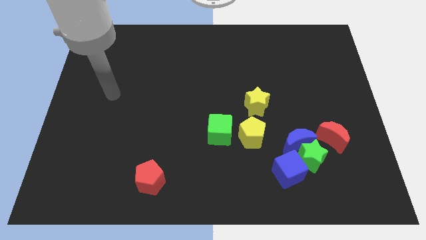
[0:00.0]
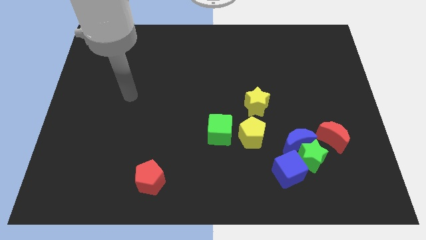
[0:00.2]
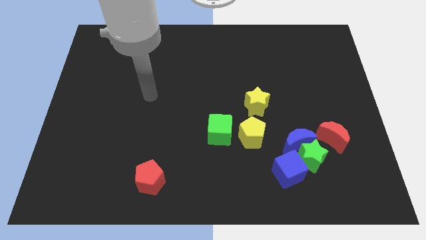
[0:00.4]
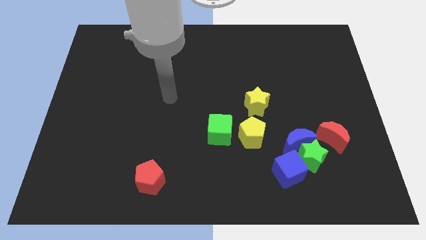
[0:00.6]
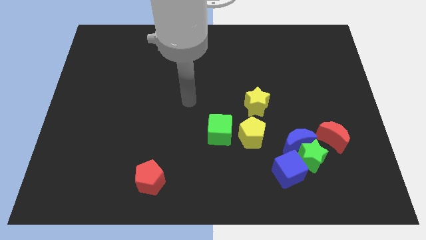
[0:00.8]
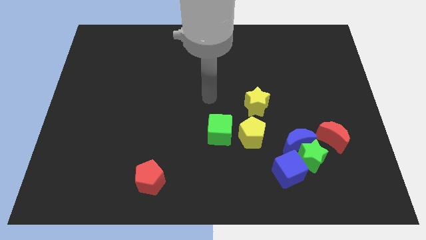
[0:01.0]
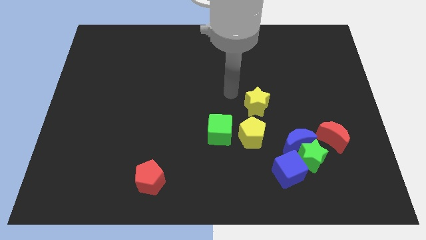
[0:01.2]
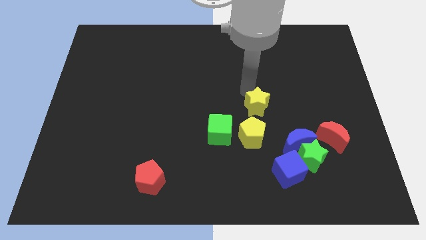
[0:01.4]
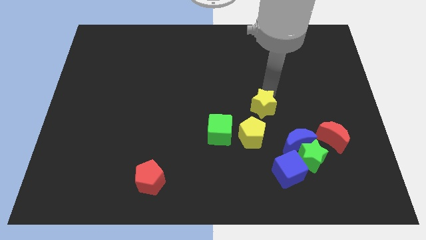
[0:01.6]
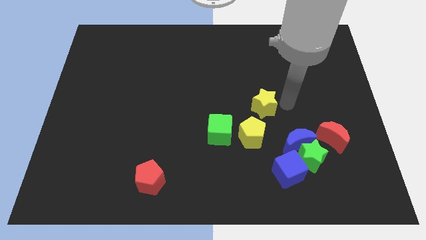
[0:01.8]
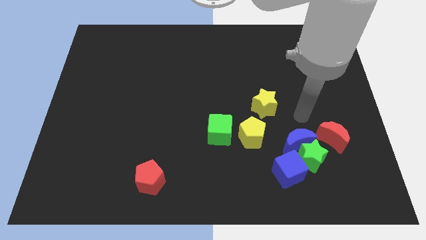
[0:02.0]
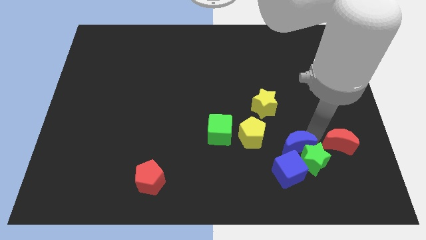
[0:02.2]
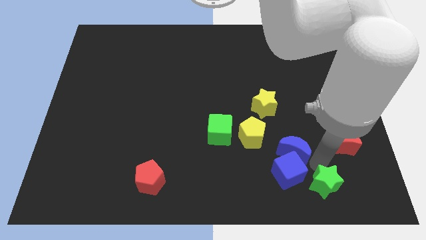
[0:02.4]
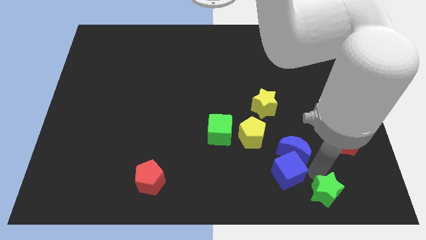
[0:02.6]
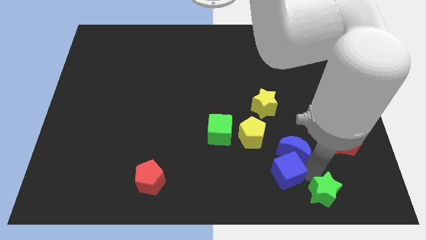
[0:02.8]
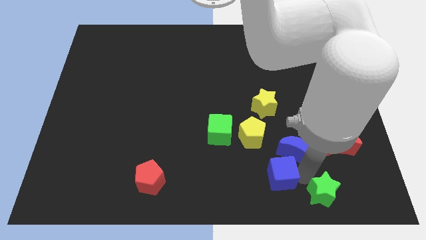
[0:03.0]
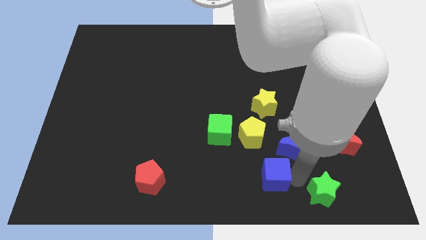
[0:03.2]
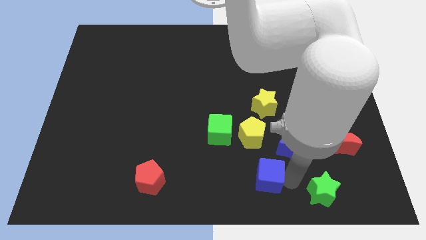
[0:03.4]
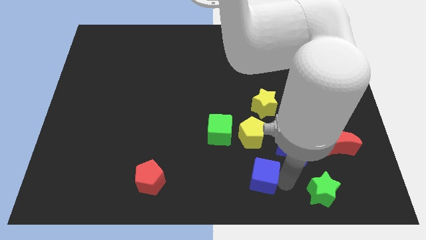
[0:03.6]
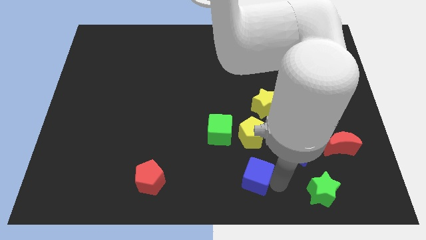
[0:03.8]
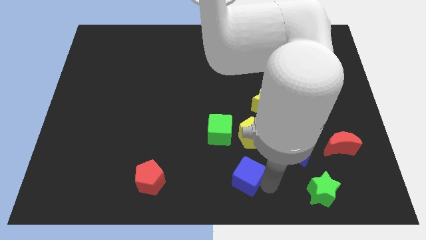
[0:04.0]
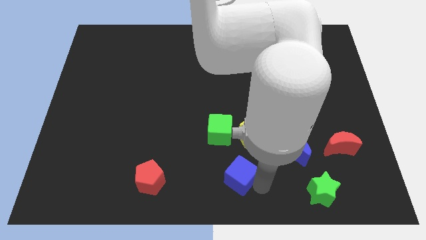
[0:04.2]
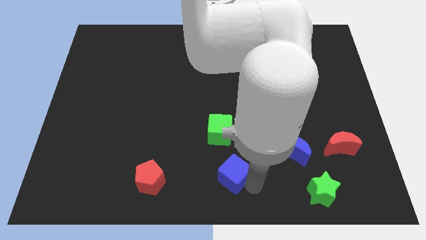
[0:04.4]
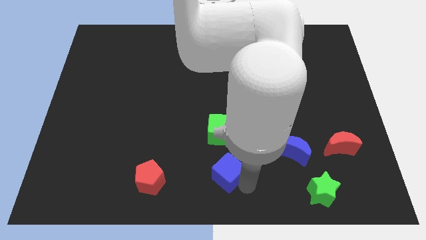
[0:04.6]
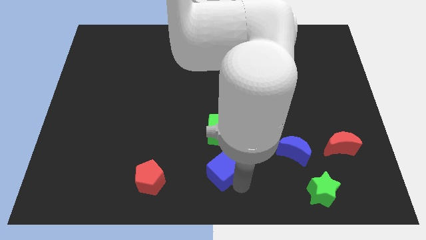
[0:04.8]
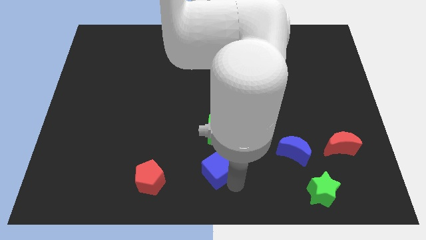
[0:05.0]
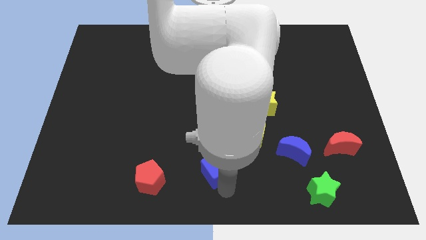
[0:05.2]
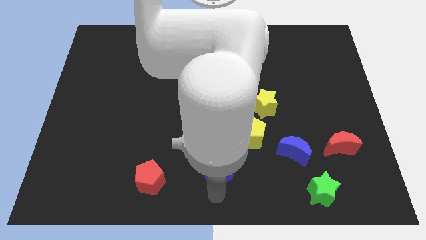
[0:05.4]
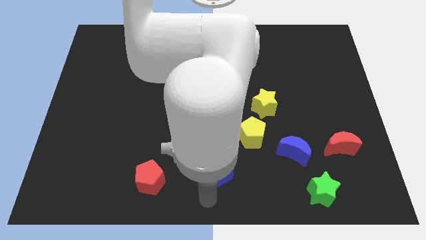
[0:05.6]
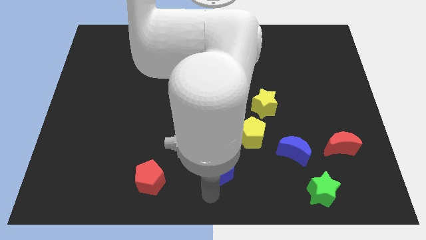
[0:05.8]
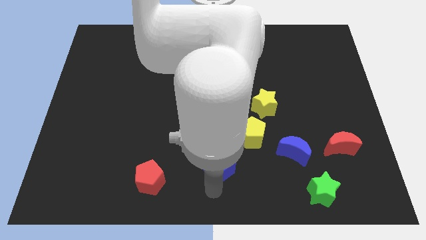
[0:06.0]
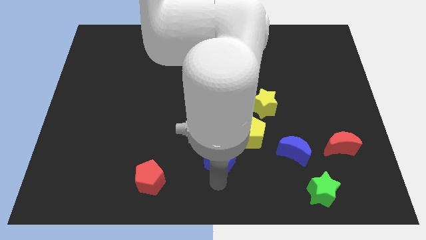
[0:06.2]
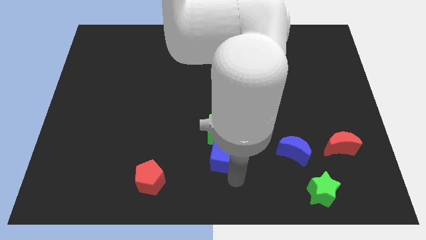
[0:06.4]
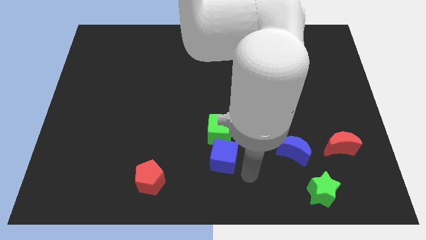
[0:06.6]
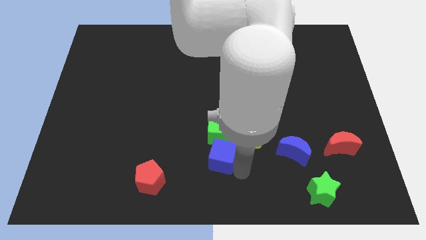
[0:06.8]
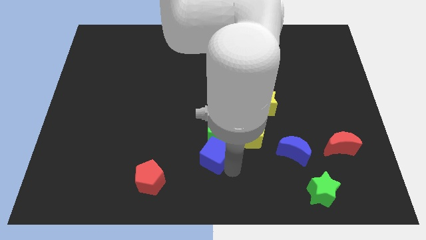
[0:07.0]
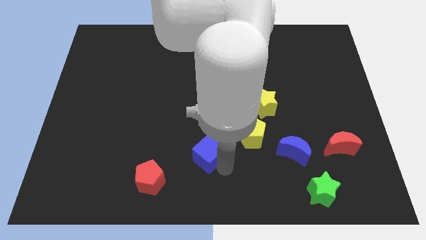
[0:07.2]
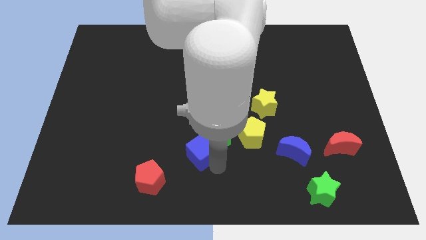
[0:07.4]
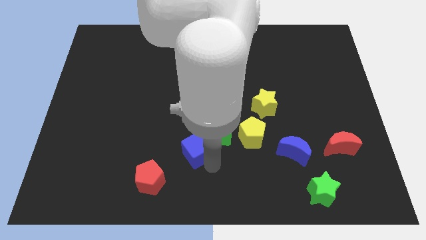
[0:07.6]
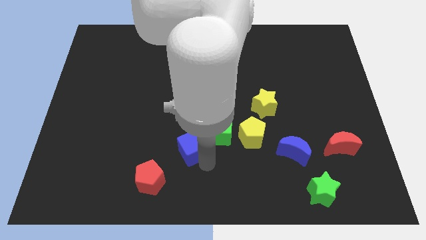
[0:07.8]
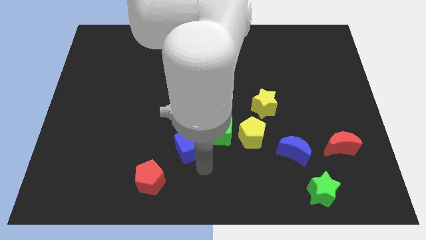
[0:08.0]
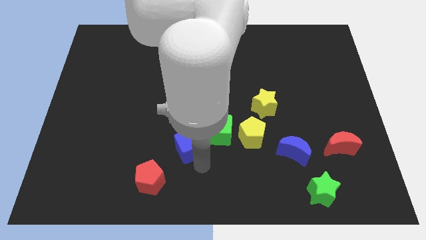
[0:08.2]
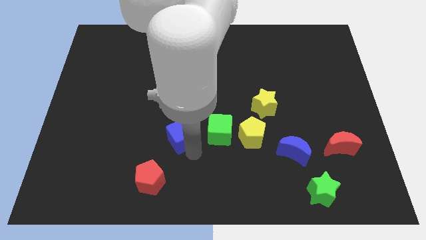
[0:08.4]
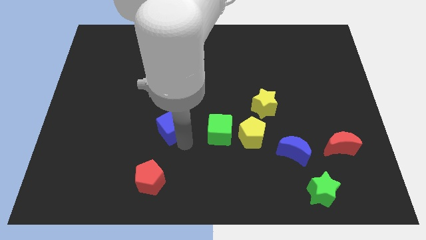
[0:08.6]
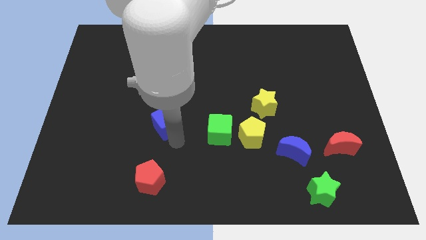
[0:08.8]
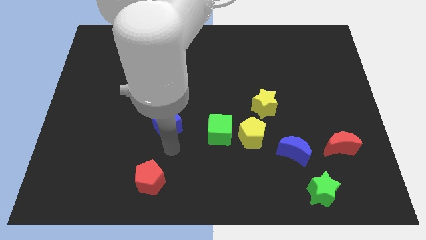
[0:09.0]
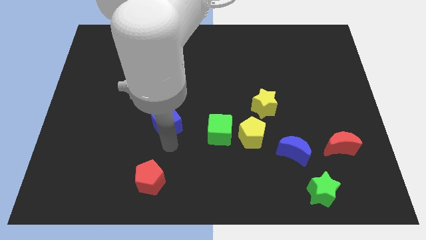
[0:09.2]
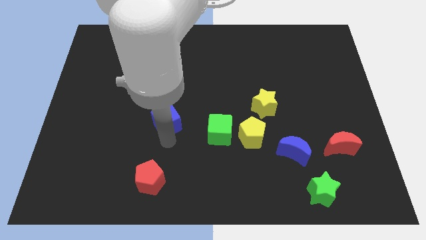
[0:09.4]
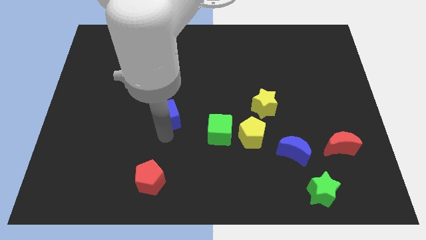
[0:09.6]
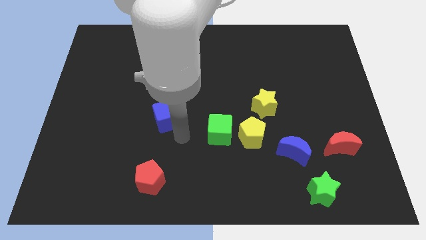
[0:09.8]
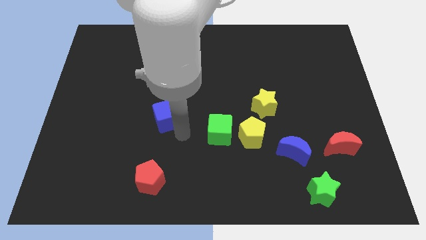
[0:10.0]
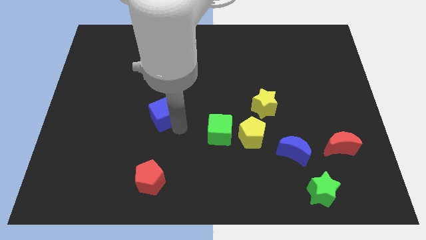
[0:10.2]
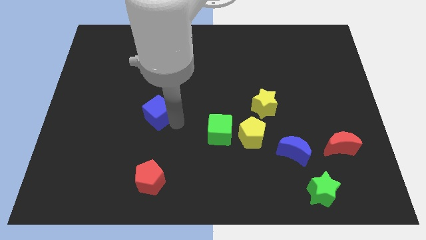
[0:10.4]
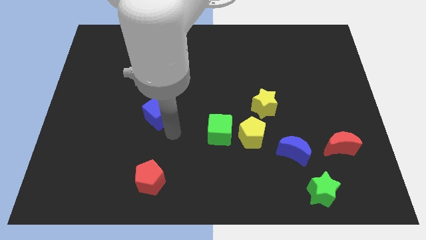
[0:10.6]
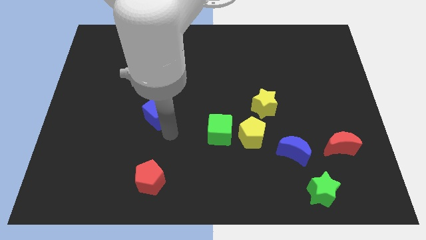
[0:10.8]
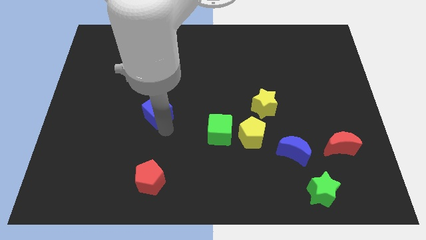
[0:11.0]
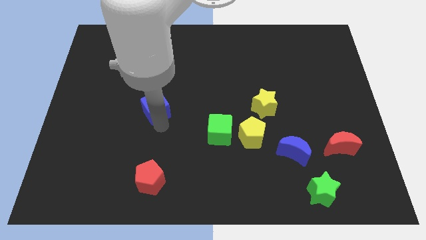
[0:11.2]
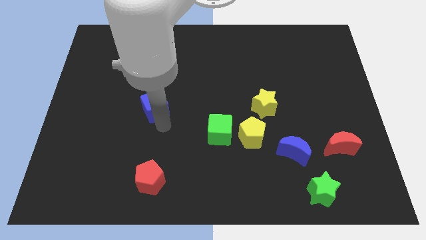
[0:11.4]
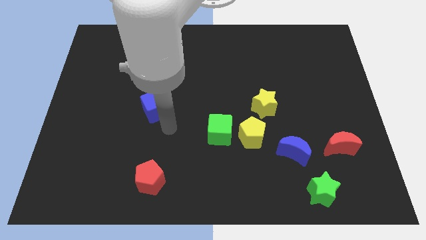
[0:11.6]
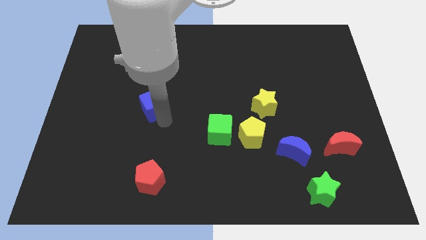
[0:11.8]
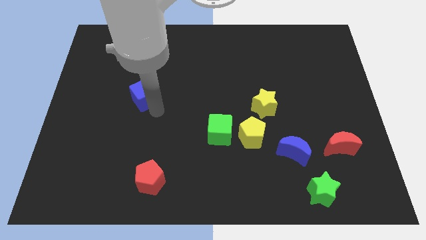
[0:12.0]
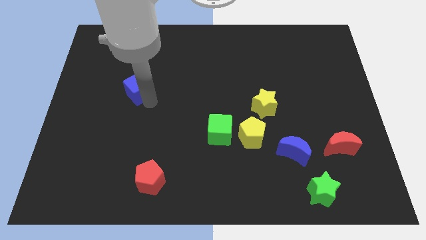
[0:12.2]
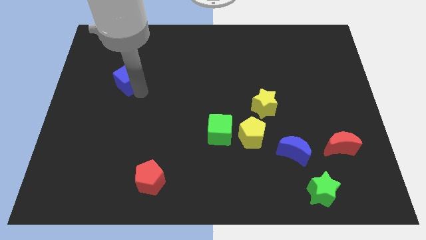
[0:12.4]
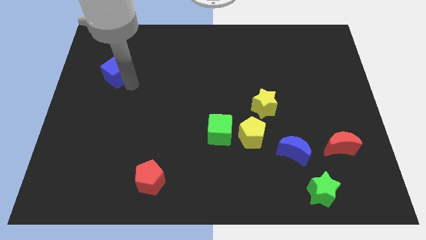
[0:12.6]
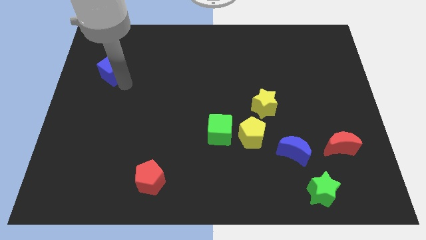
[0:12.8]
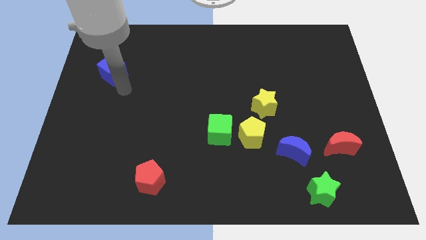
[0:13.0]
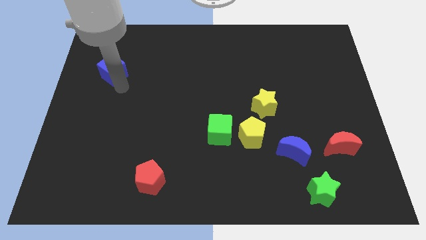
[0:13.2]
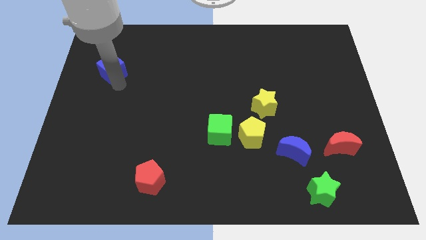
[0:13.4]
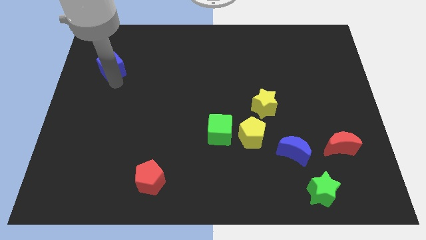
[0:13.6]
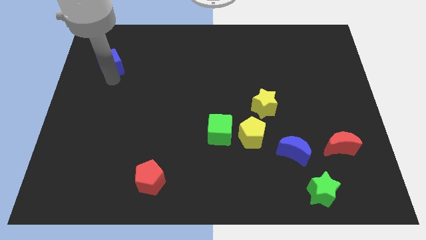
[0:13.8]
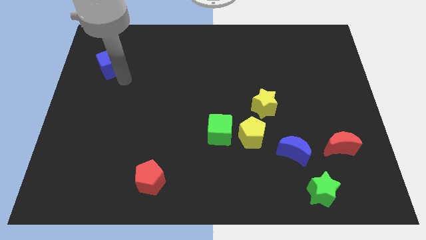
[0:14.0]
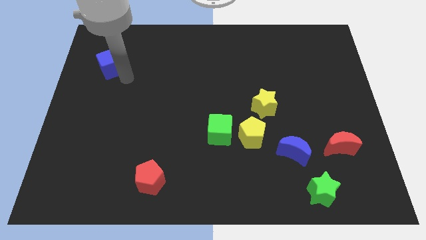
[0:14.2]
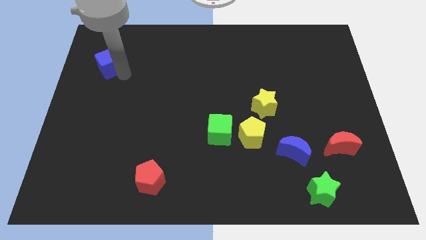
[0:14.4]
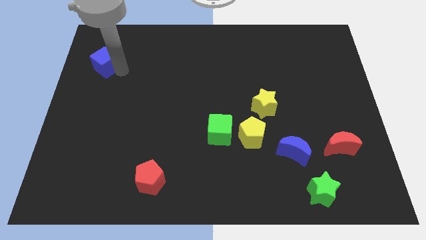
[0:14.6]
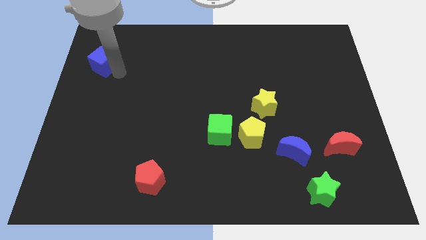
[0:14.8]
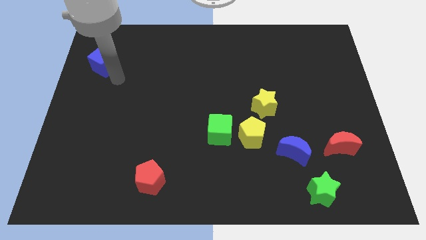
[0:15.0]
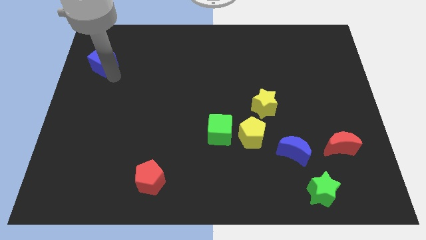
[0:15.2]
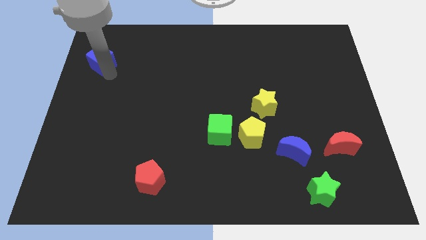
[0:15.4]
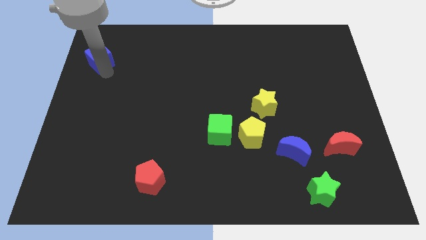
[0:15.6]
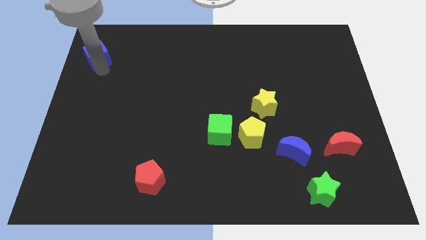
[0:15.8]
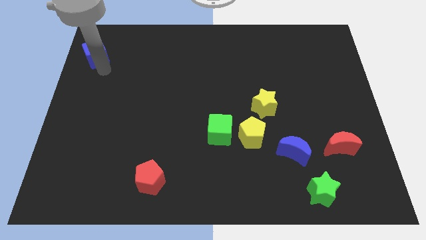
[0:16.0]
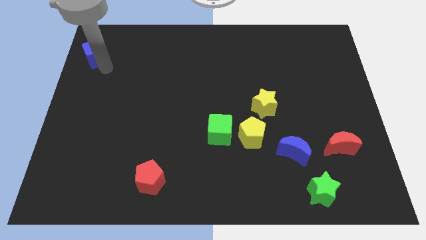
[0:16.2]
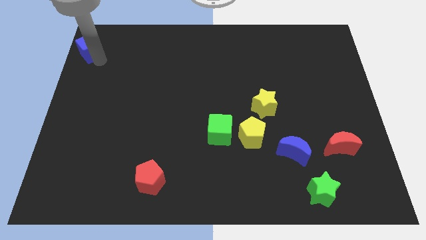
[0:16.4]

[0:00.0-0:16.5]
put the blue cube to the upper left corner
